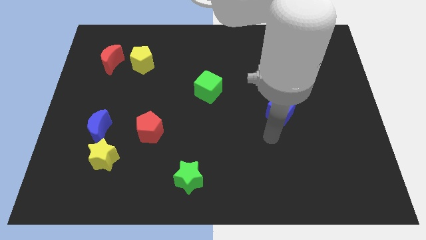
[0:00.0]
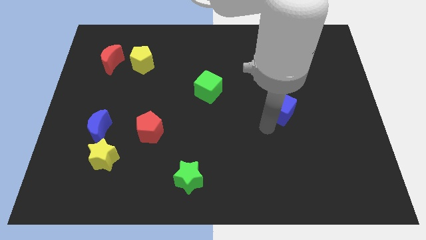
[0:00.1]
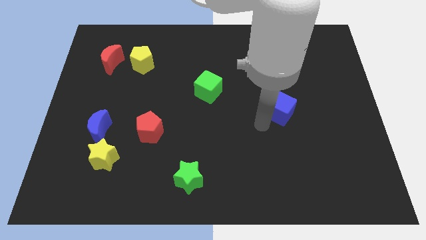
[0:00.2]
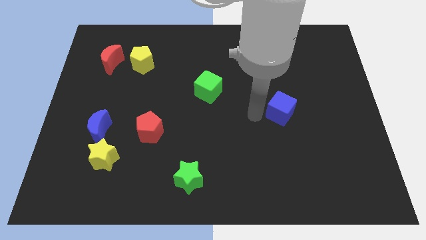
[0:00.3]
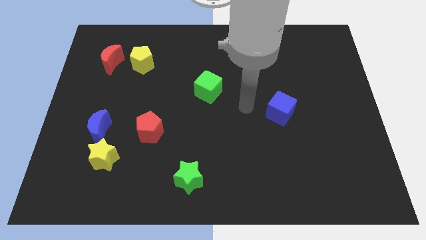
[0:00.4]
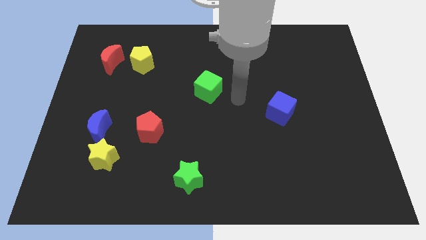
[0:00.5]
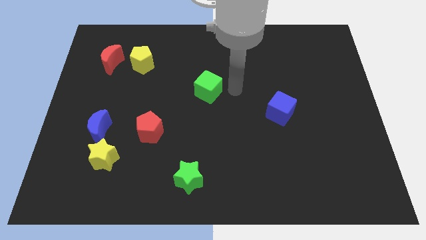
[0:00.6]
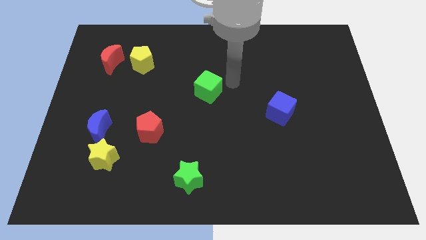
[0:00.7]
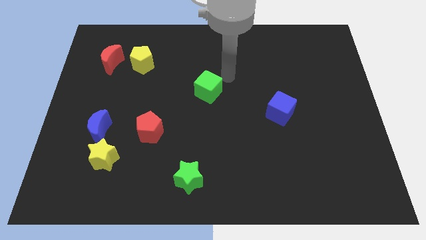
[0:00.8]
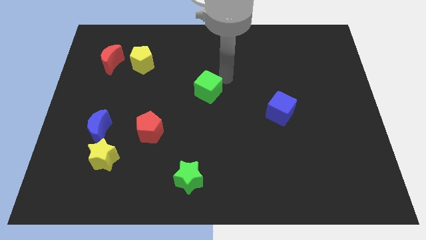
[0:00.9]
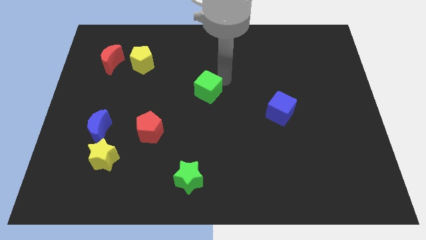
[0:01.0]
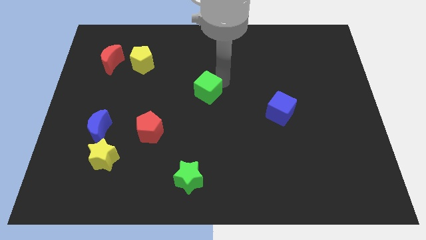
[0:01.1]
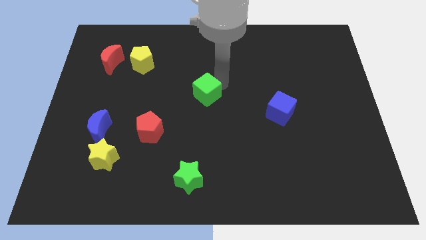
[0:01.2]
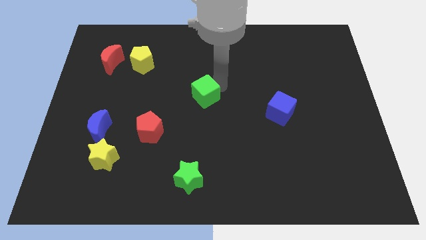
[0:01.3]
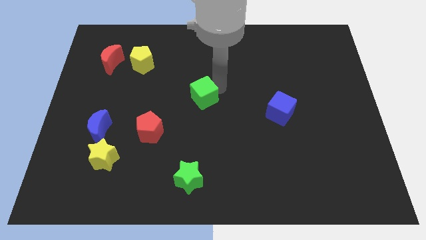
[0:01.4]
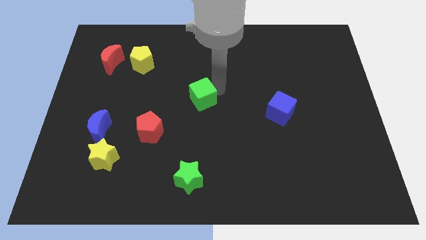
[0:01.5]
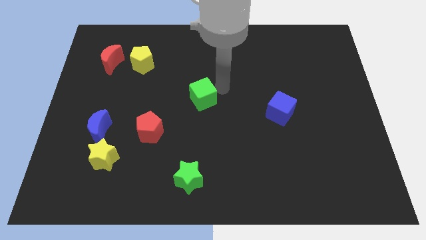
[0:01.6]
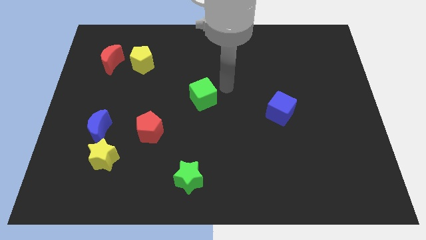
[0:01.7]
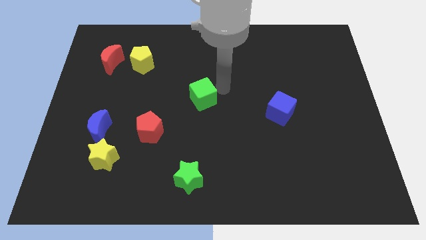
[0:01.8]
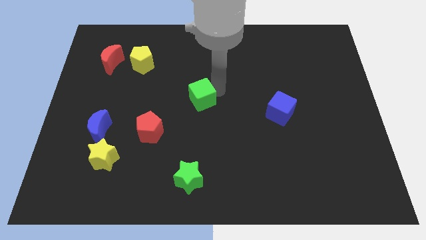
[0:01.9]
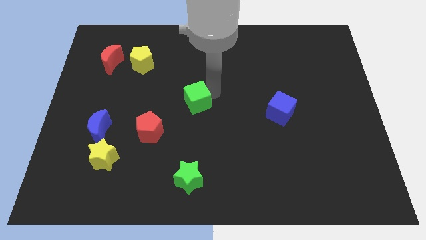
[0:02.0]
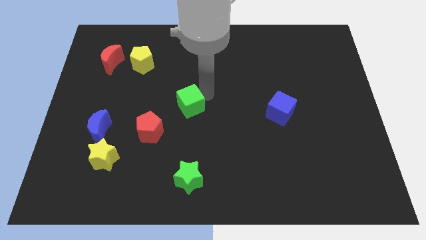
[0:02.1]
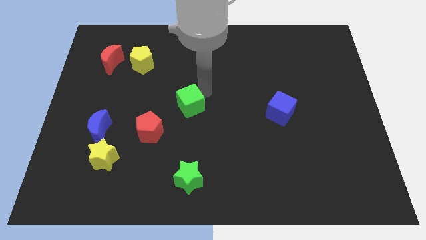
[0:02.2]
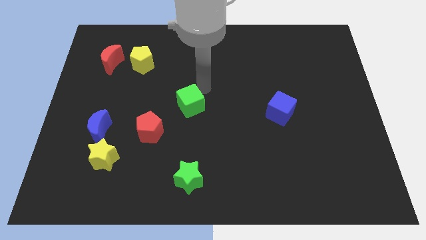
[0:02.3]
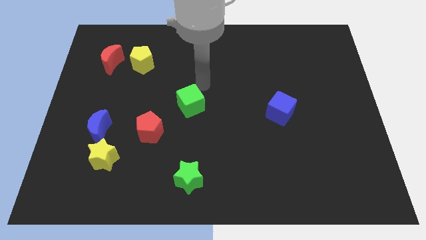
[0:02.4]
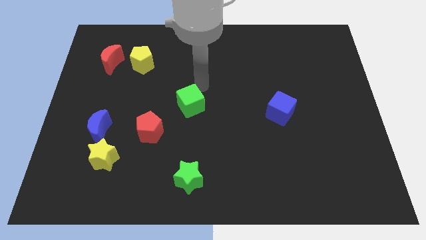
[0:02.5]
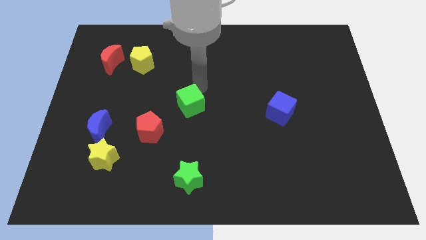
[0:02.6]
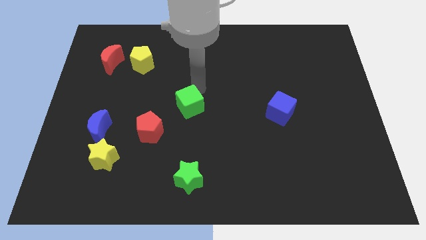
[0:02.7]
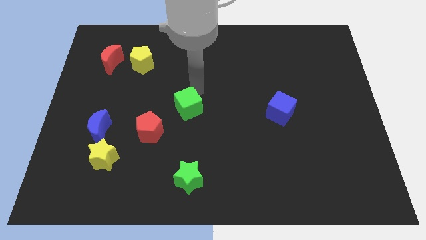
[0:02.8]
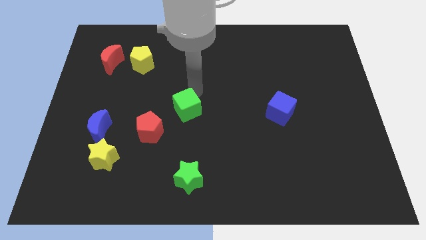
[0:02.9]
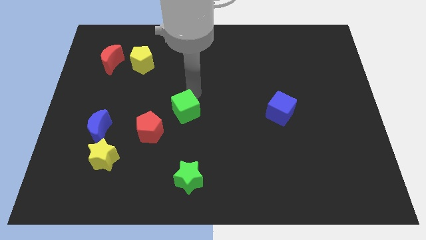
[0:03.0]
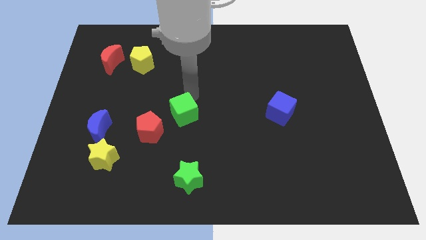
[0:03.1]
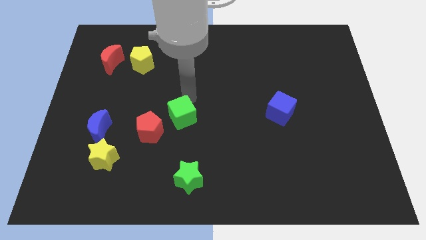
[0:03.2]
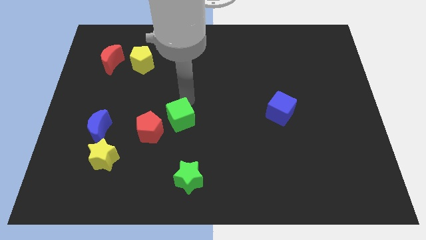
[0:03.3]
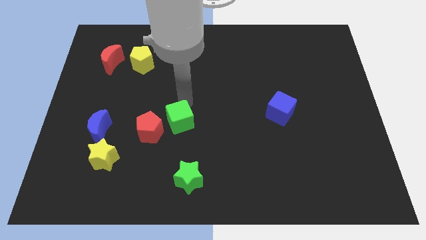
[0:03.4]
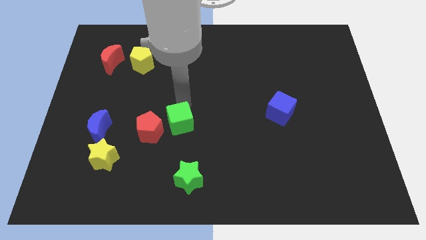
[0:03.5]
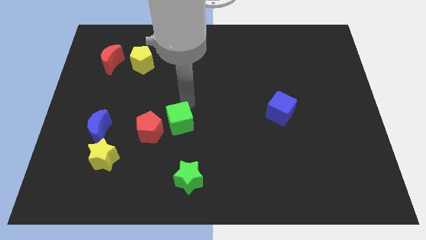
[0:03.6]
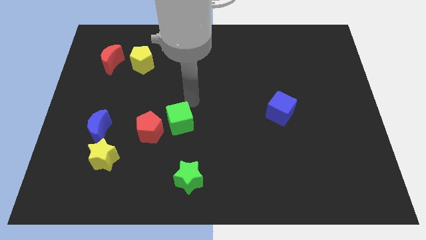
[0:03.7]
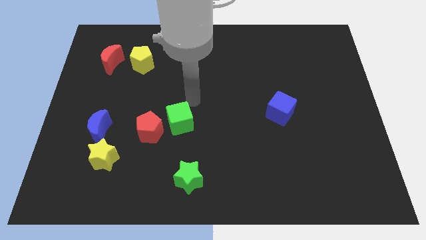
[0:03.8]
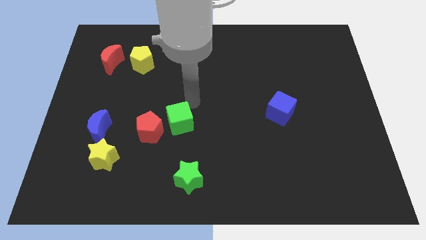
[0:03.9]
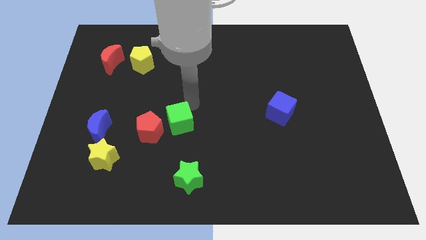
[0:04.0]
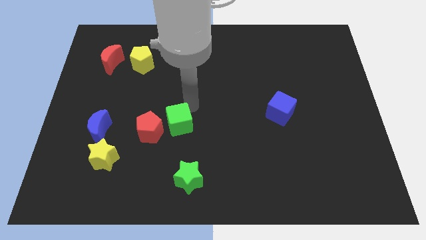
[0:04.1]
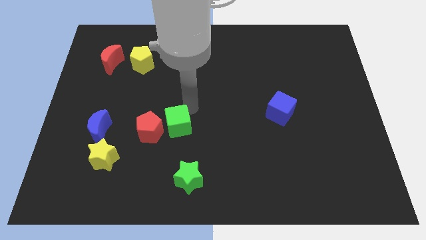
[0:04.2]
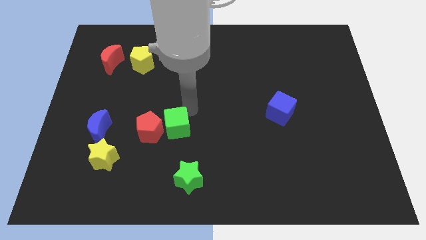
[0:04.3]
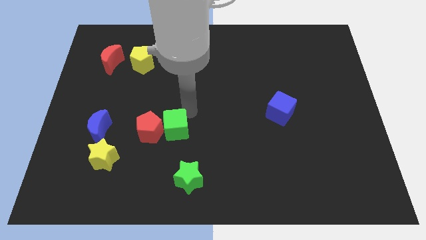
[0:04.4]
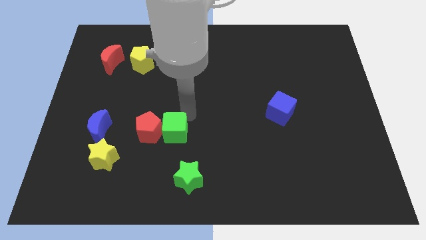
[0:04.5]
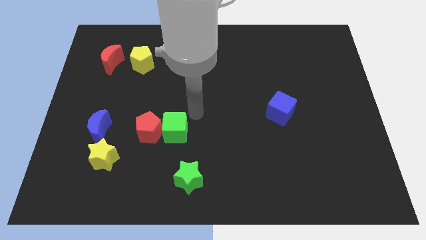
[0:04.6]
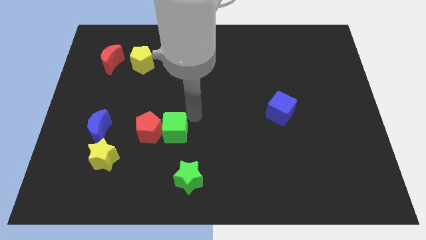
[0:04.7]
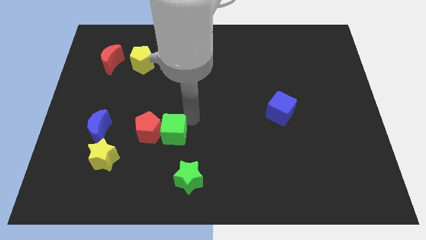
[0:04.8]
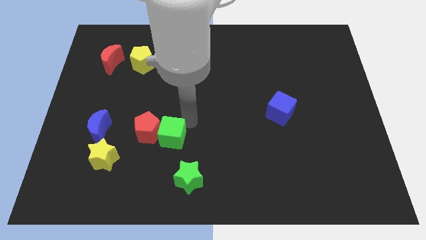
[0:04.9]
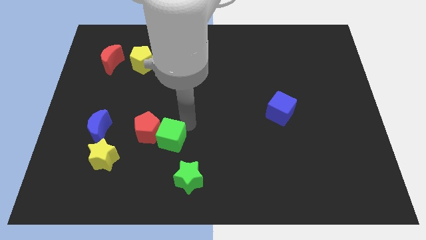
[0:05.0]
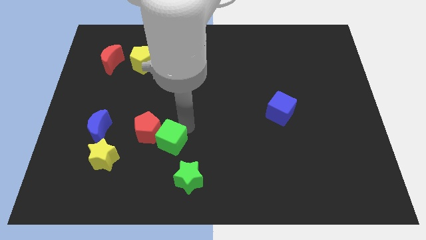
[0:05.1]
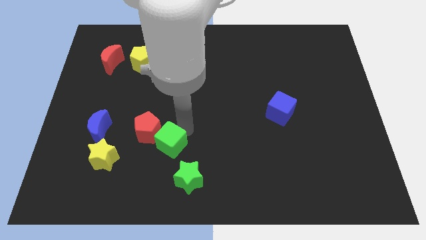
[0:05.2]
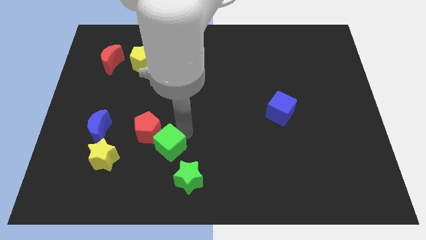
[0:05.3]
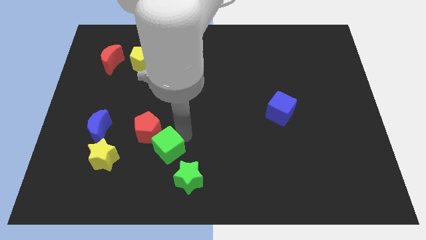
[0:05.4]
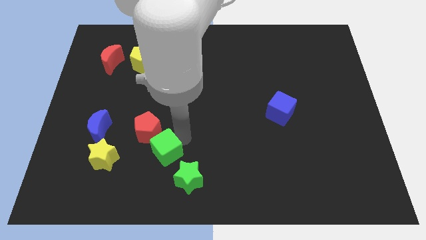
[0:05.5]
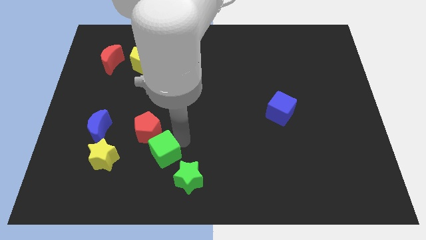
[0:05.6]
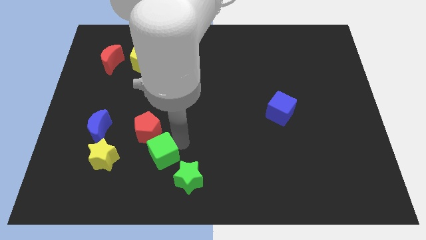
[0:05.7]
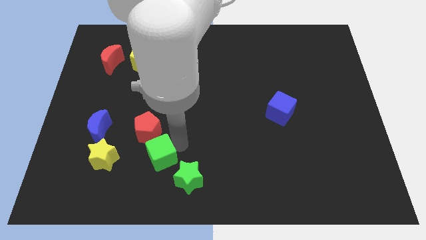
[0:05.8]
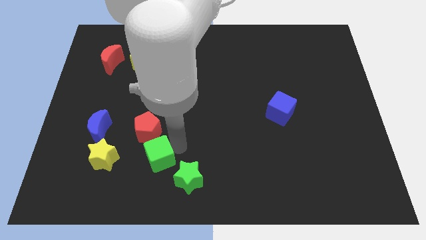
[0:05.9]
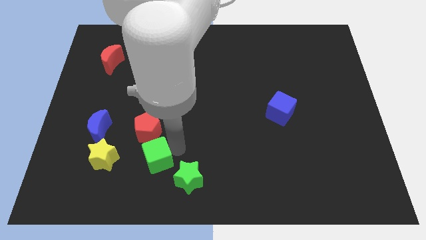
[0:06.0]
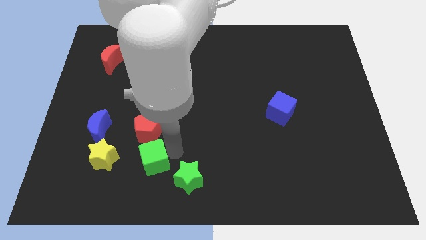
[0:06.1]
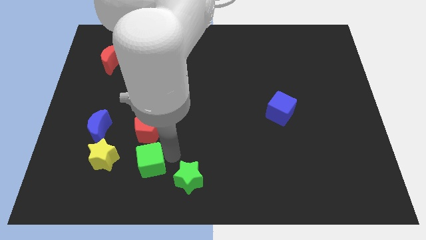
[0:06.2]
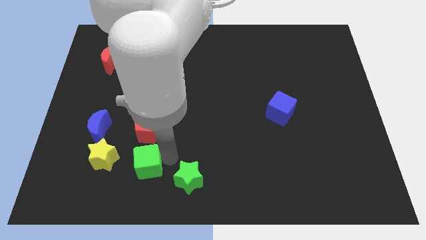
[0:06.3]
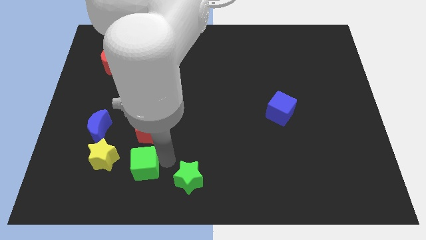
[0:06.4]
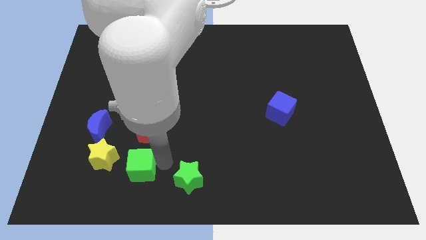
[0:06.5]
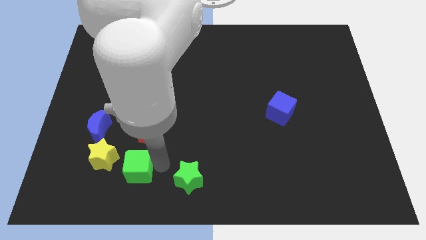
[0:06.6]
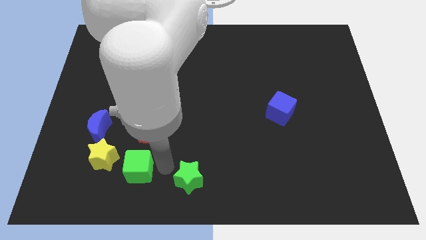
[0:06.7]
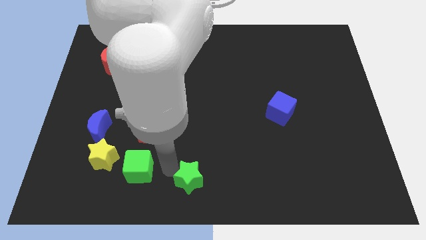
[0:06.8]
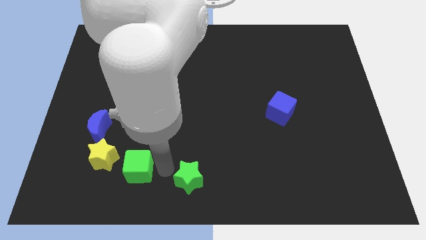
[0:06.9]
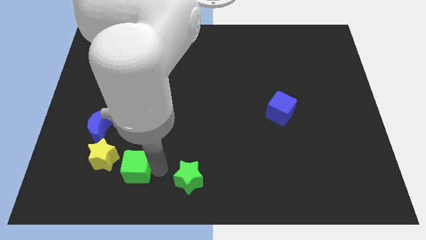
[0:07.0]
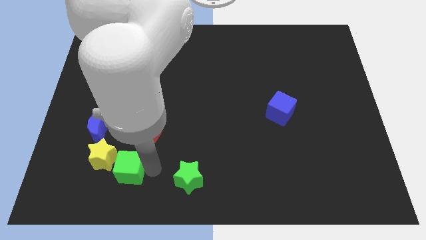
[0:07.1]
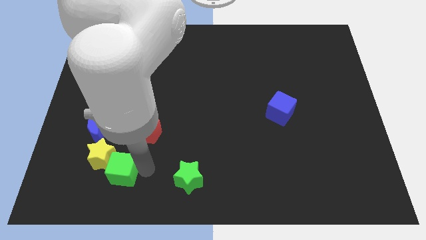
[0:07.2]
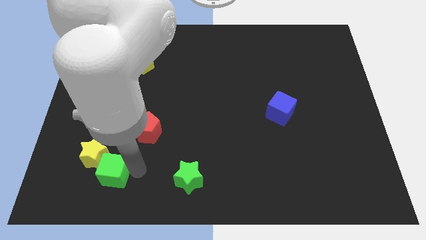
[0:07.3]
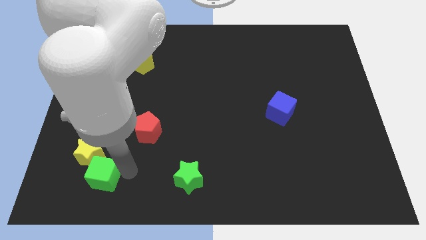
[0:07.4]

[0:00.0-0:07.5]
slide the green cube below the blue moon
